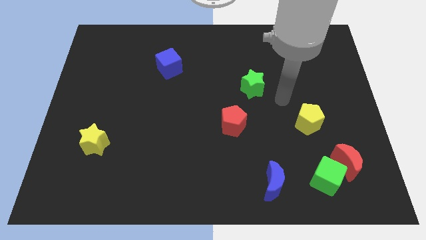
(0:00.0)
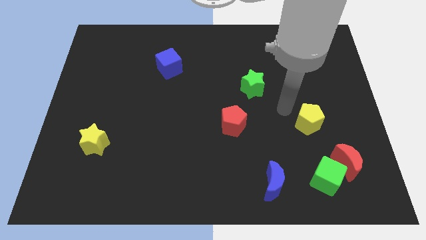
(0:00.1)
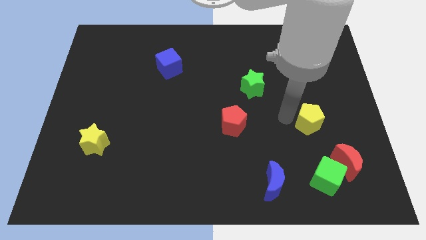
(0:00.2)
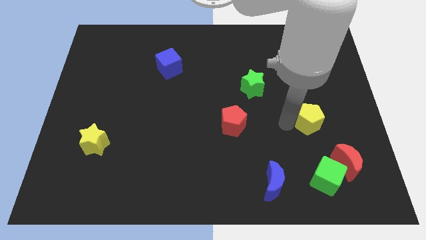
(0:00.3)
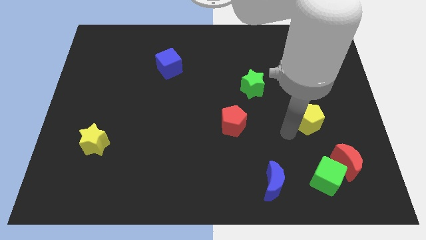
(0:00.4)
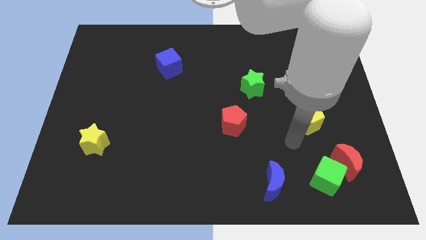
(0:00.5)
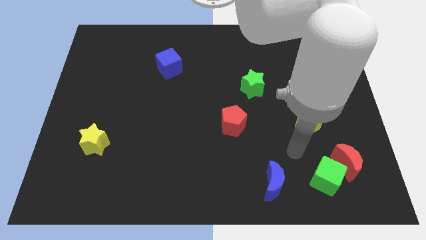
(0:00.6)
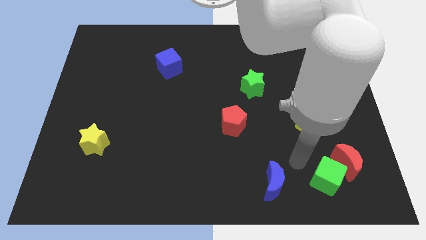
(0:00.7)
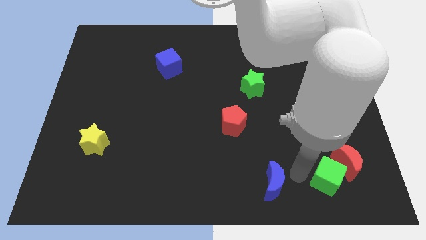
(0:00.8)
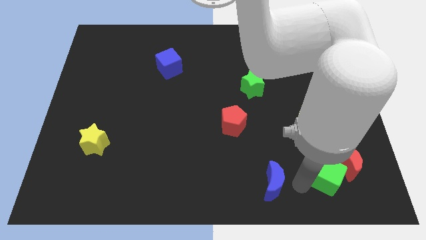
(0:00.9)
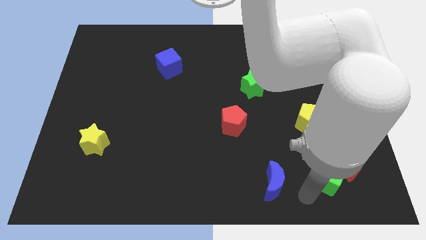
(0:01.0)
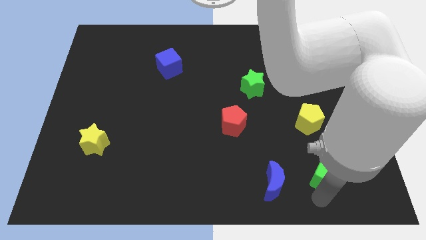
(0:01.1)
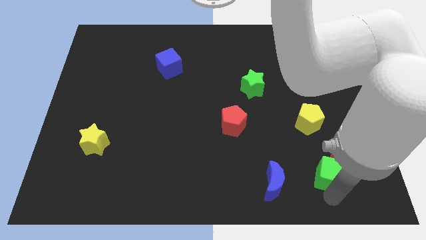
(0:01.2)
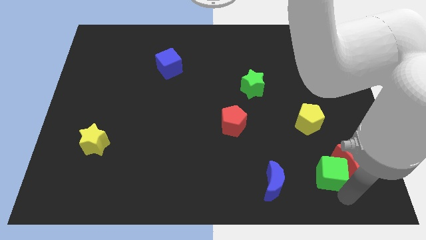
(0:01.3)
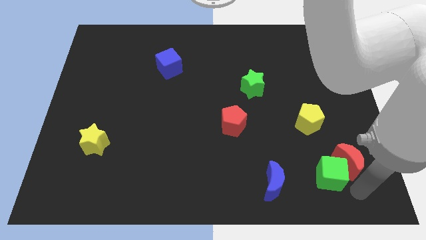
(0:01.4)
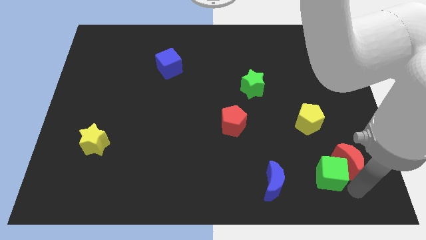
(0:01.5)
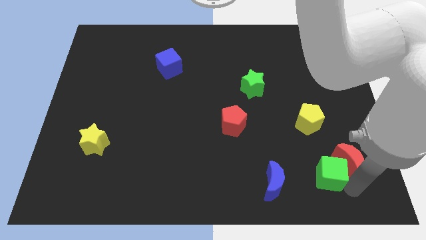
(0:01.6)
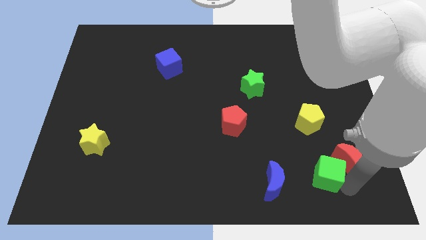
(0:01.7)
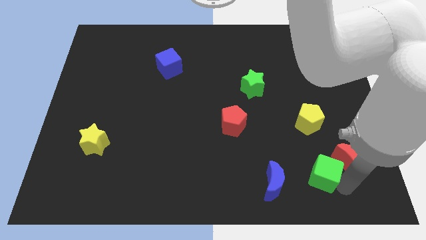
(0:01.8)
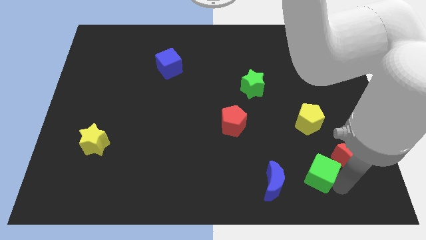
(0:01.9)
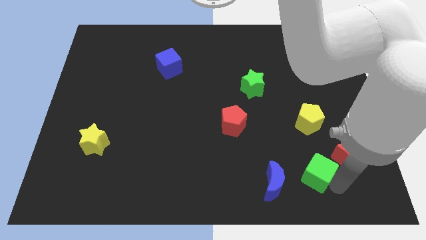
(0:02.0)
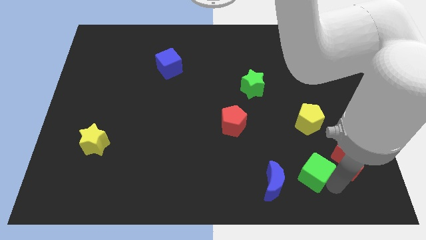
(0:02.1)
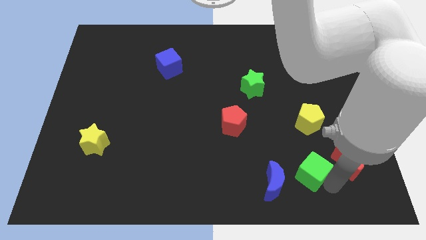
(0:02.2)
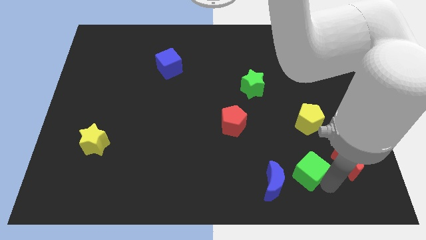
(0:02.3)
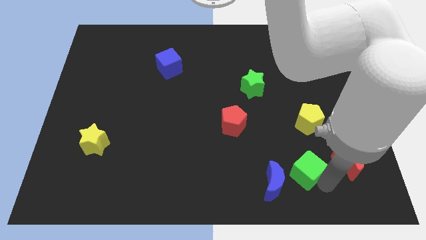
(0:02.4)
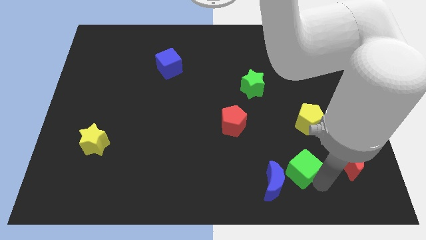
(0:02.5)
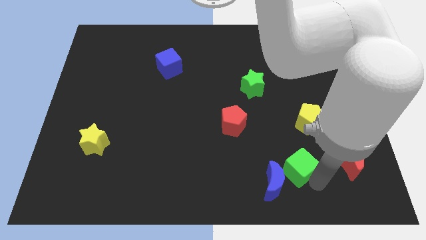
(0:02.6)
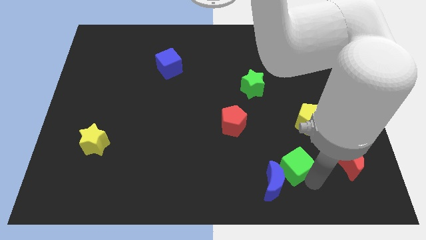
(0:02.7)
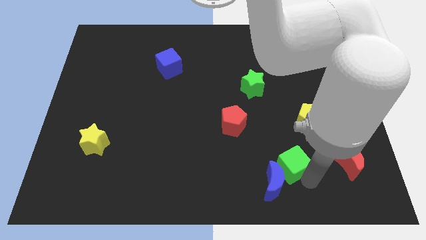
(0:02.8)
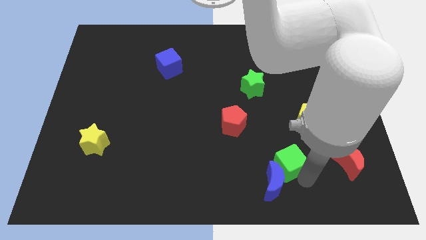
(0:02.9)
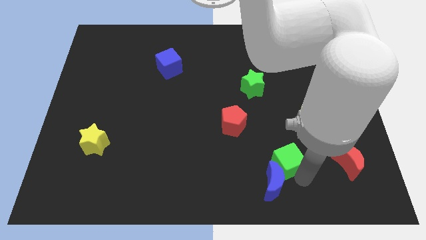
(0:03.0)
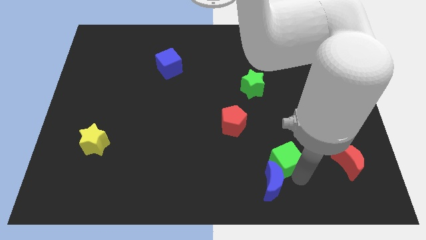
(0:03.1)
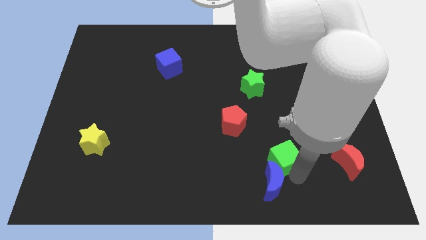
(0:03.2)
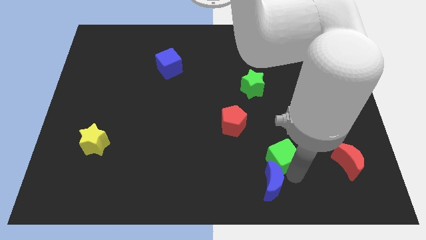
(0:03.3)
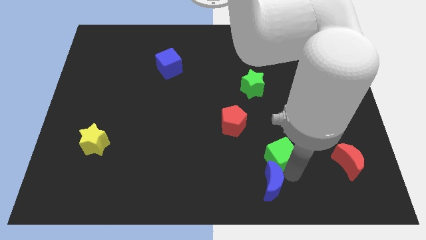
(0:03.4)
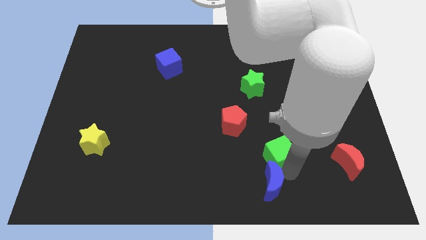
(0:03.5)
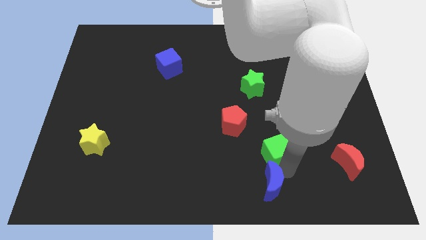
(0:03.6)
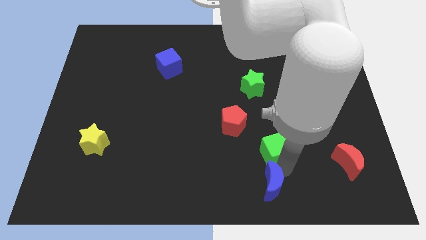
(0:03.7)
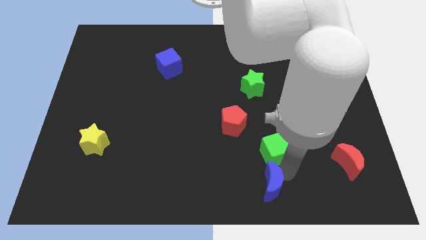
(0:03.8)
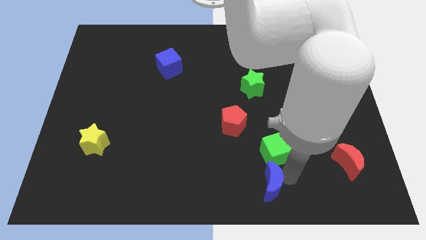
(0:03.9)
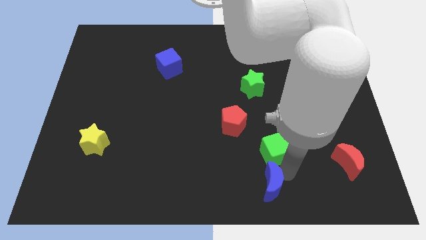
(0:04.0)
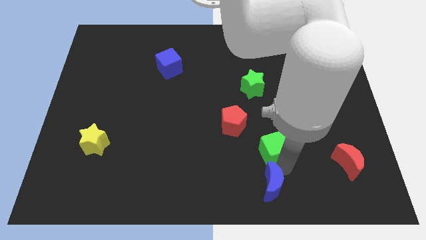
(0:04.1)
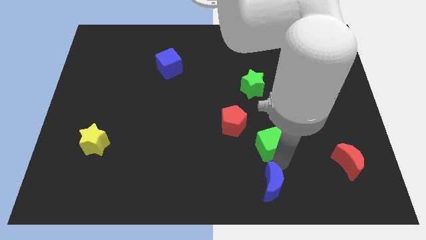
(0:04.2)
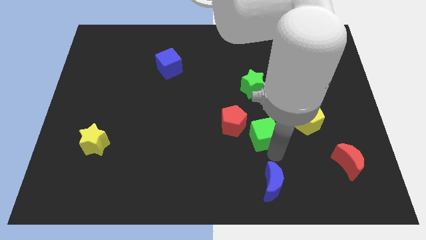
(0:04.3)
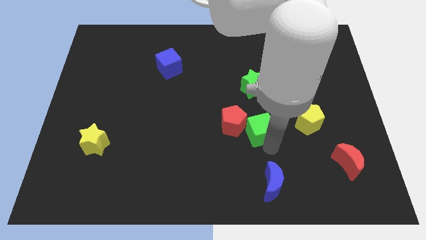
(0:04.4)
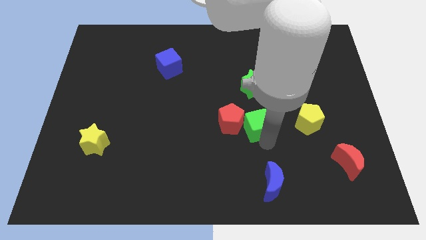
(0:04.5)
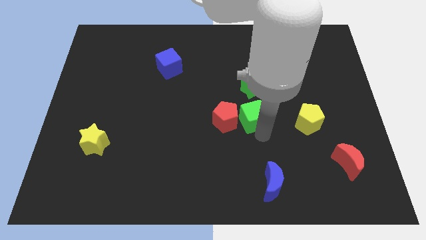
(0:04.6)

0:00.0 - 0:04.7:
push the green cube up and to the left

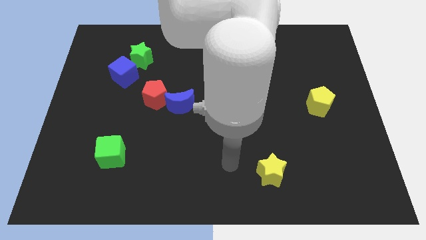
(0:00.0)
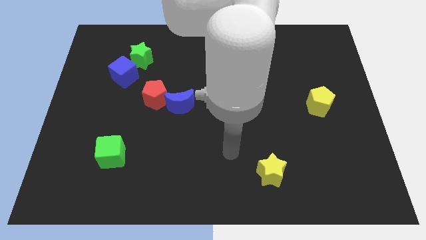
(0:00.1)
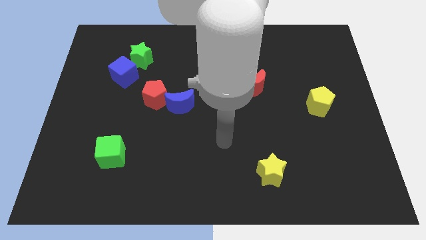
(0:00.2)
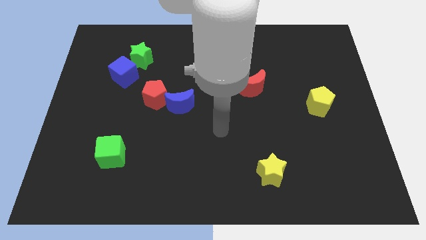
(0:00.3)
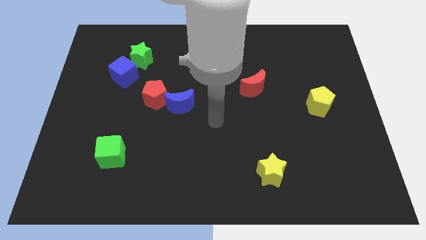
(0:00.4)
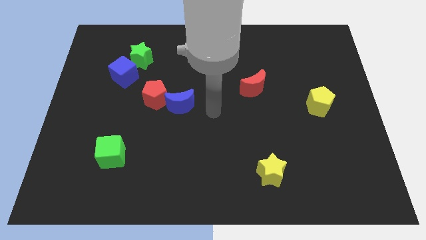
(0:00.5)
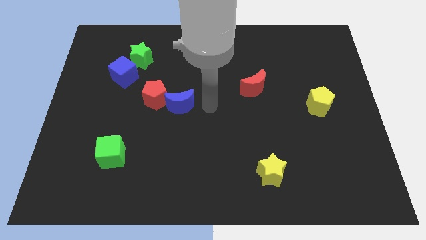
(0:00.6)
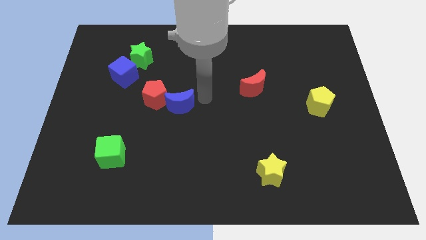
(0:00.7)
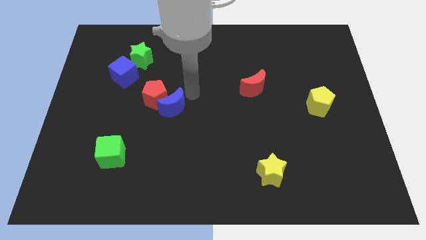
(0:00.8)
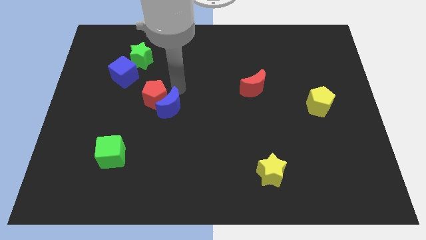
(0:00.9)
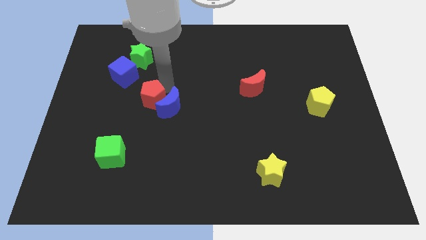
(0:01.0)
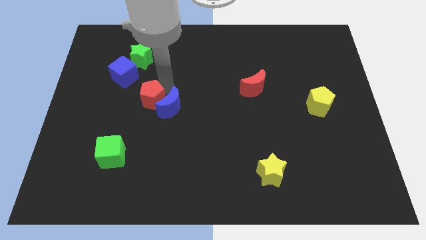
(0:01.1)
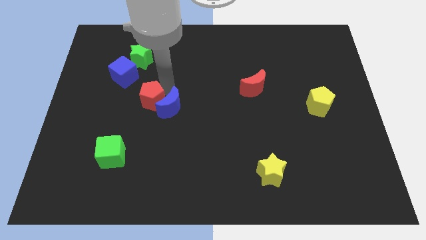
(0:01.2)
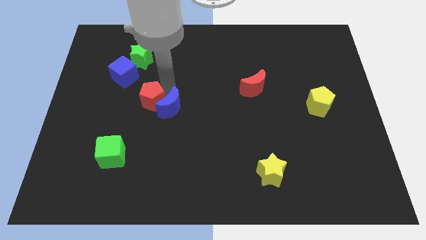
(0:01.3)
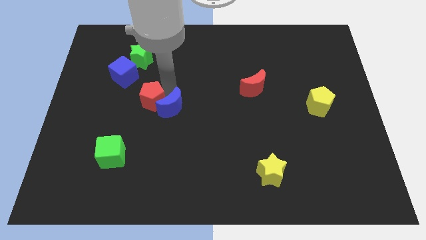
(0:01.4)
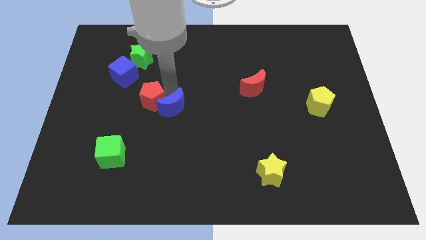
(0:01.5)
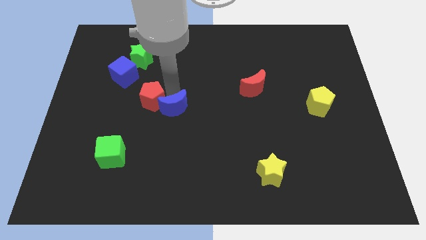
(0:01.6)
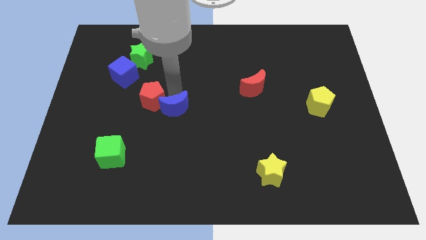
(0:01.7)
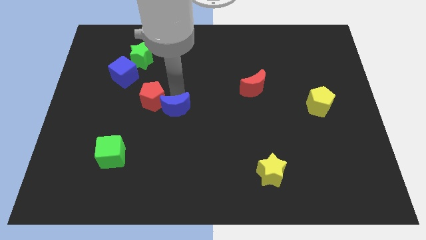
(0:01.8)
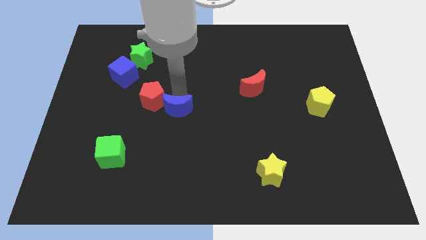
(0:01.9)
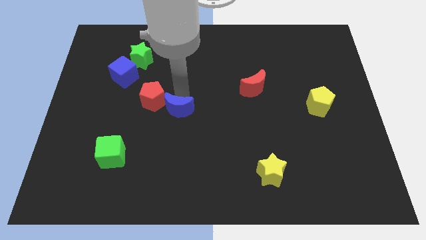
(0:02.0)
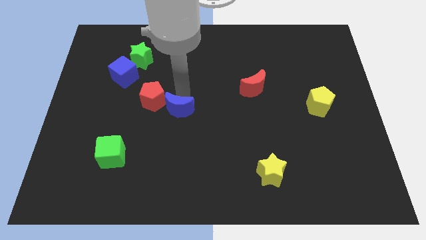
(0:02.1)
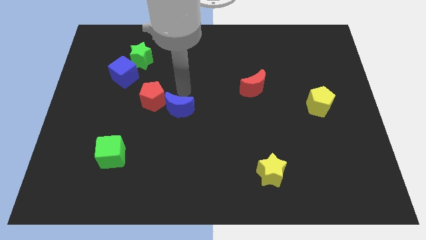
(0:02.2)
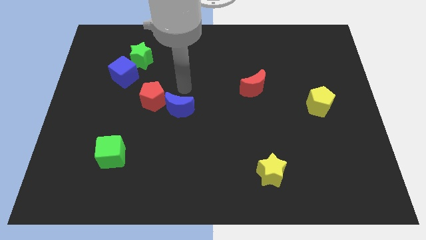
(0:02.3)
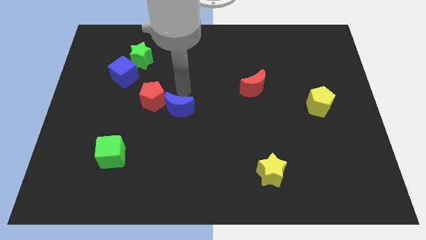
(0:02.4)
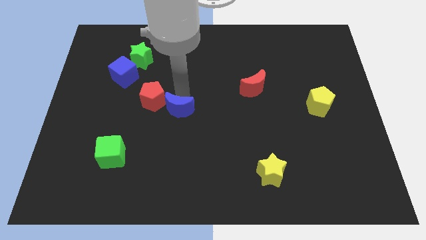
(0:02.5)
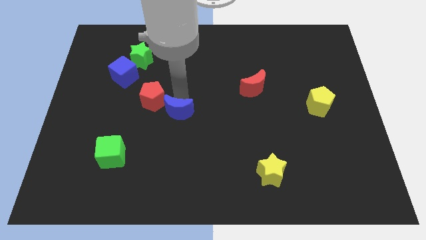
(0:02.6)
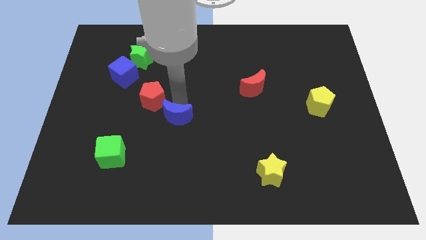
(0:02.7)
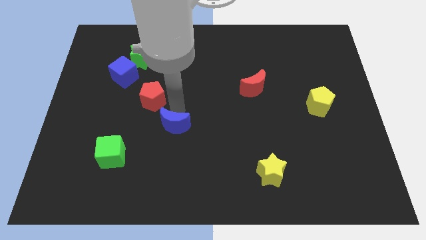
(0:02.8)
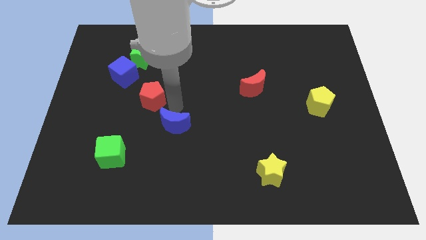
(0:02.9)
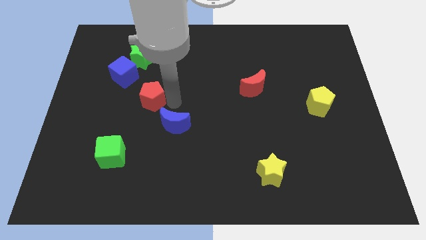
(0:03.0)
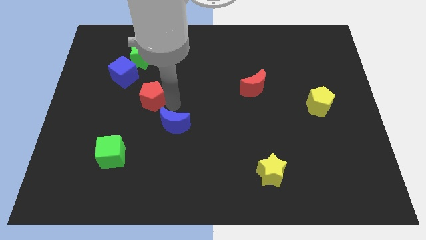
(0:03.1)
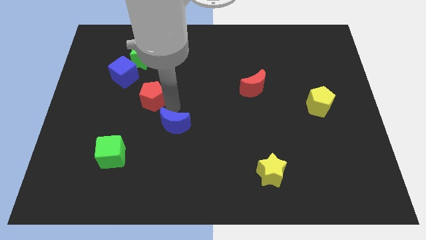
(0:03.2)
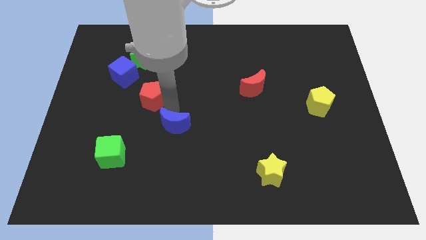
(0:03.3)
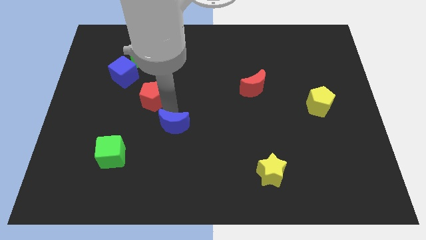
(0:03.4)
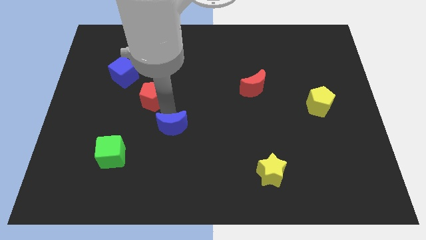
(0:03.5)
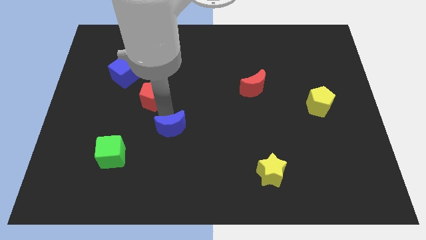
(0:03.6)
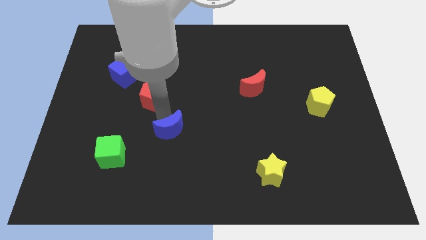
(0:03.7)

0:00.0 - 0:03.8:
slide the blue moon a little bit down
